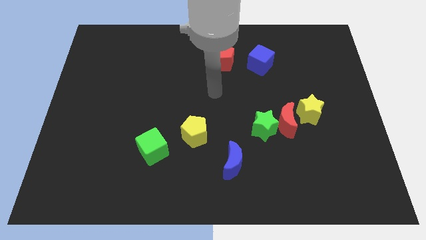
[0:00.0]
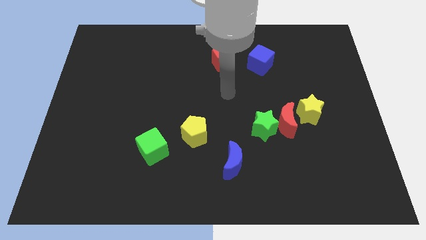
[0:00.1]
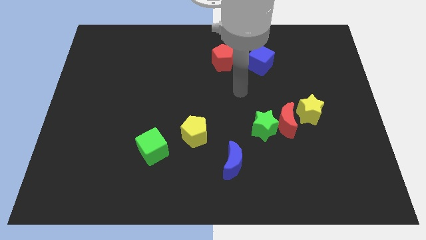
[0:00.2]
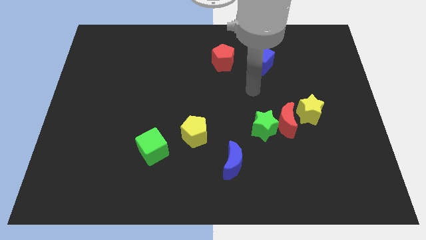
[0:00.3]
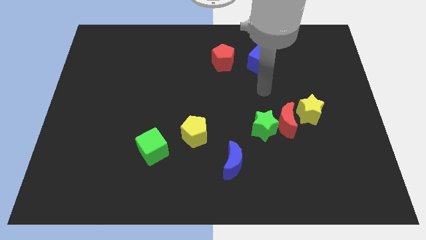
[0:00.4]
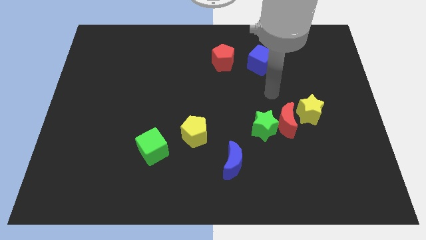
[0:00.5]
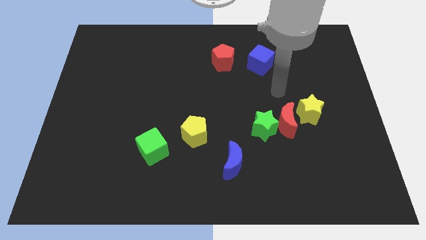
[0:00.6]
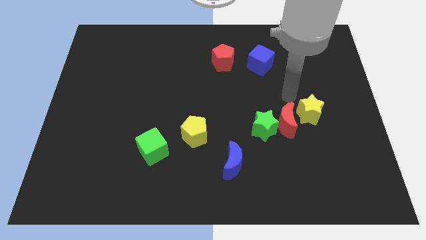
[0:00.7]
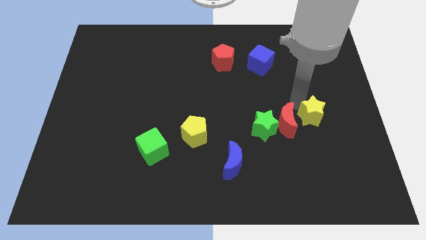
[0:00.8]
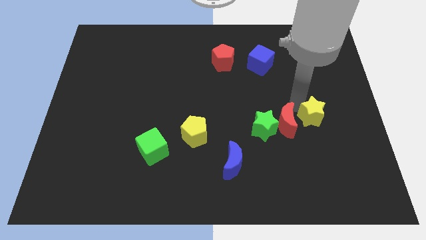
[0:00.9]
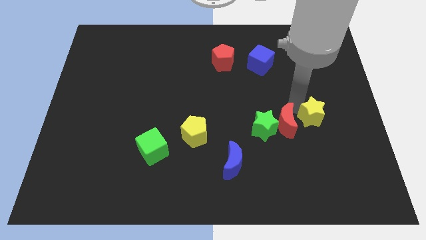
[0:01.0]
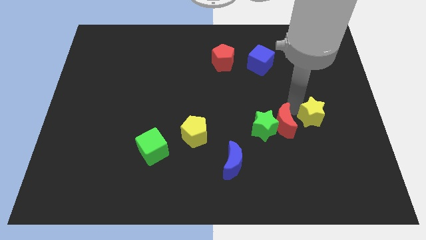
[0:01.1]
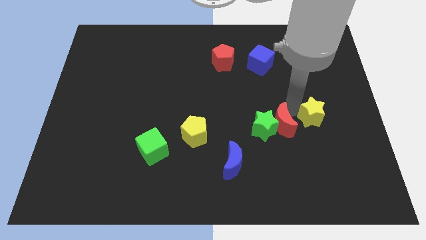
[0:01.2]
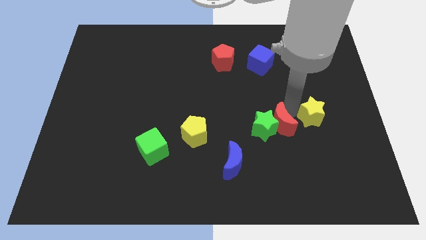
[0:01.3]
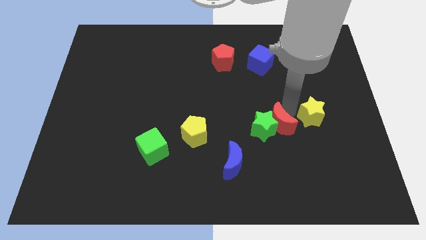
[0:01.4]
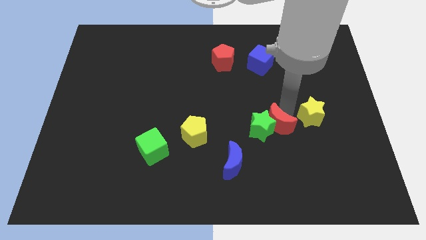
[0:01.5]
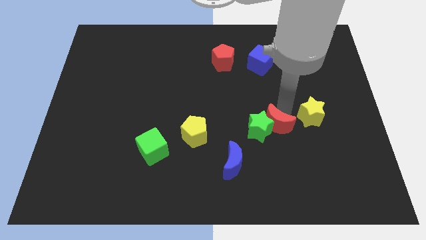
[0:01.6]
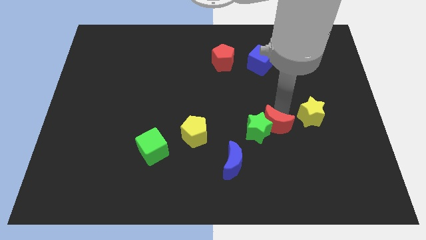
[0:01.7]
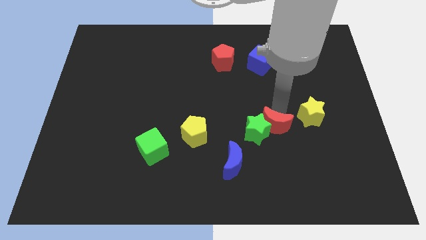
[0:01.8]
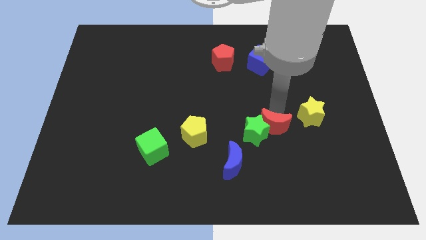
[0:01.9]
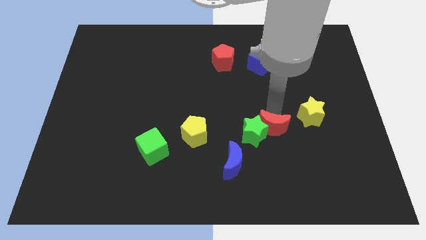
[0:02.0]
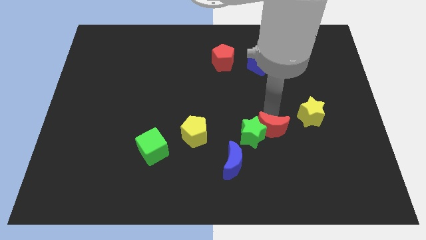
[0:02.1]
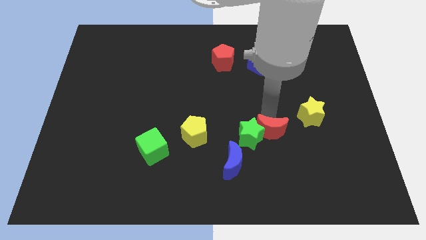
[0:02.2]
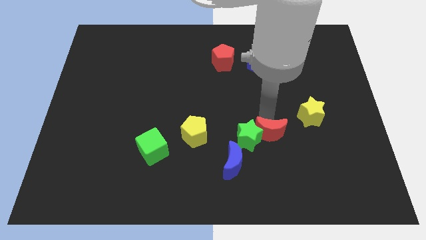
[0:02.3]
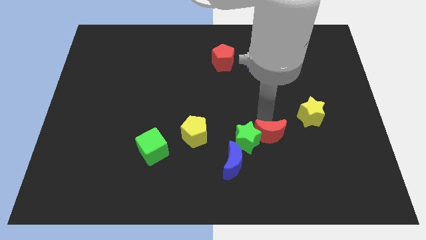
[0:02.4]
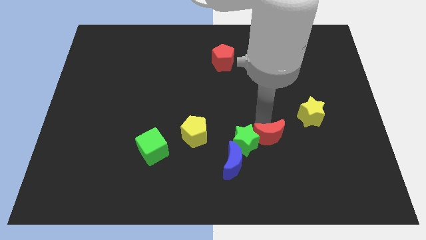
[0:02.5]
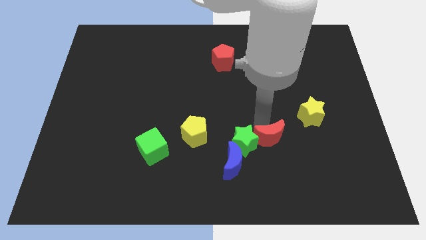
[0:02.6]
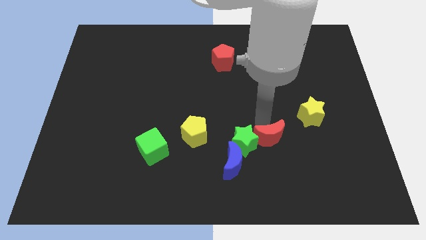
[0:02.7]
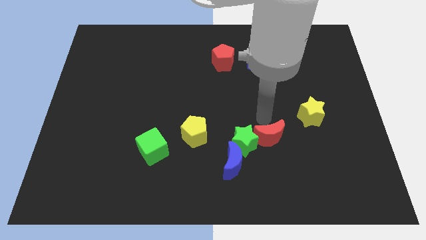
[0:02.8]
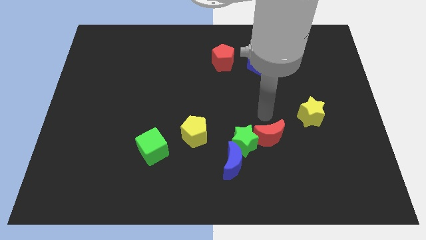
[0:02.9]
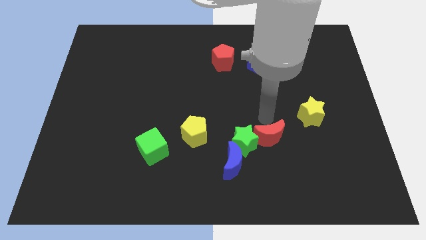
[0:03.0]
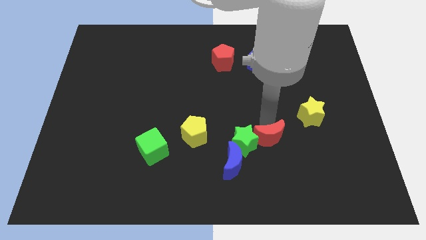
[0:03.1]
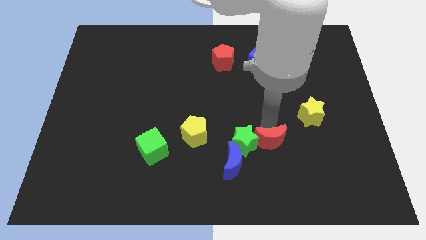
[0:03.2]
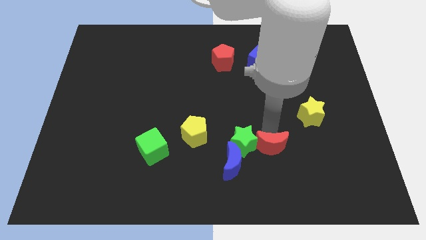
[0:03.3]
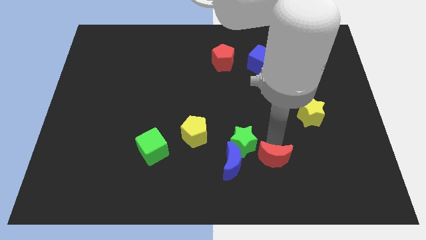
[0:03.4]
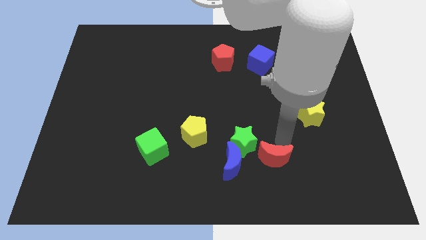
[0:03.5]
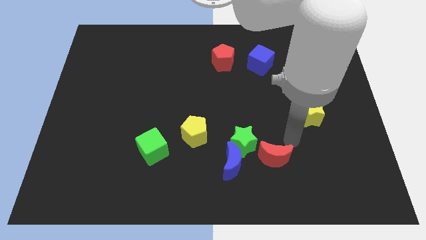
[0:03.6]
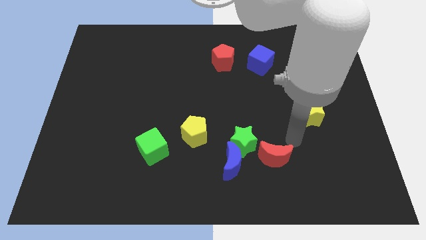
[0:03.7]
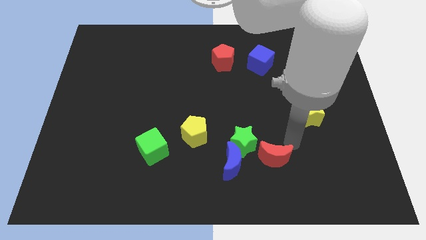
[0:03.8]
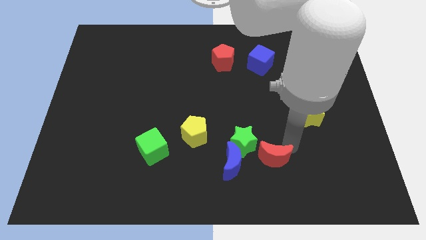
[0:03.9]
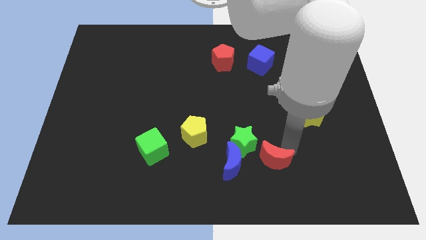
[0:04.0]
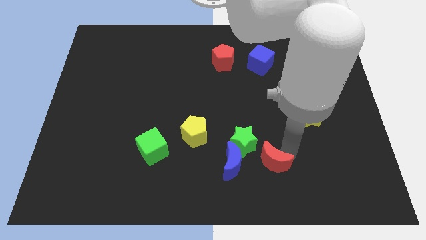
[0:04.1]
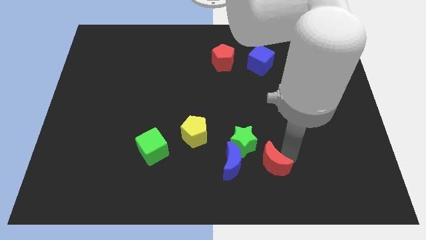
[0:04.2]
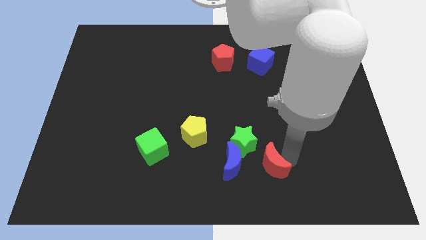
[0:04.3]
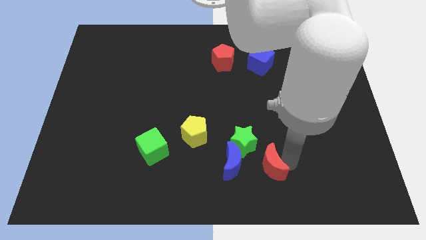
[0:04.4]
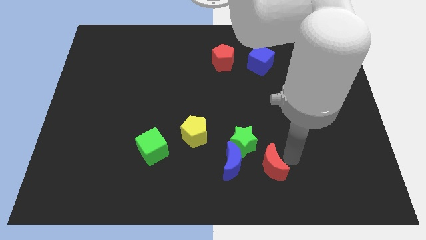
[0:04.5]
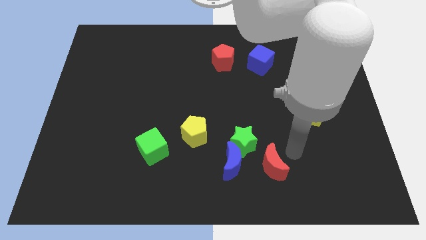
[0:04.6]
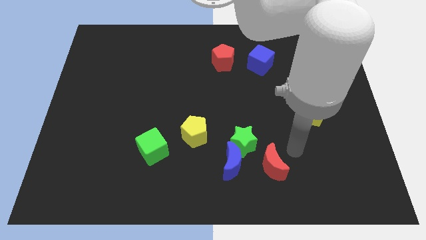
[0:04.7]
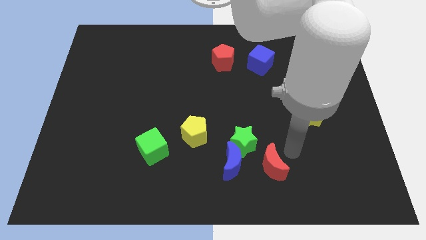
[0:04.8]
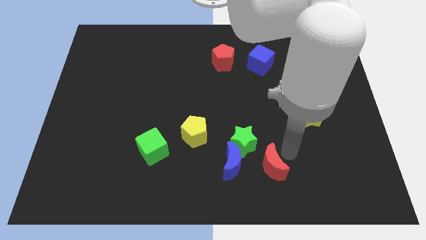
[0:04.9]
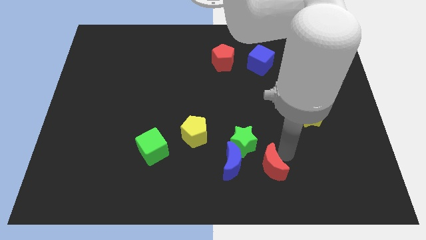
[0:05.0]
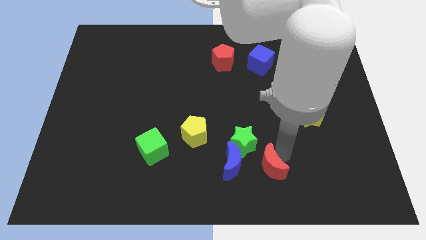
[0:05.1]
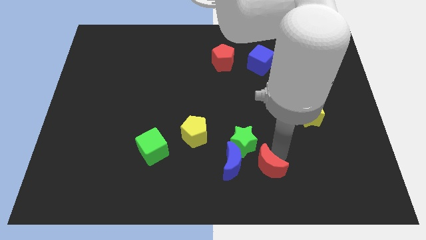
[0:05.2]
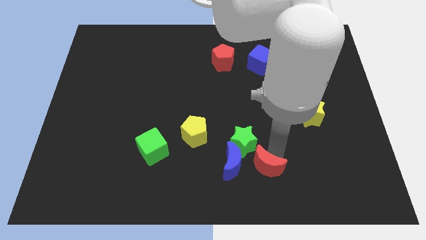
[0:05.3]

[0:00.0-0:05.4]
push the red moon below the green star

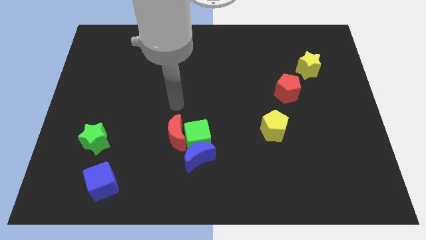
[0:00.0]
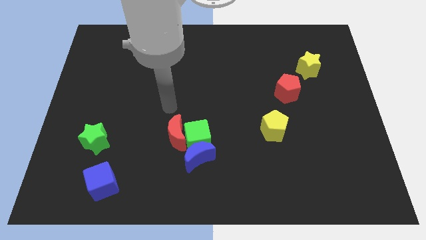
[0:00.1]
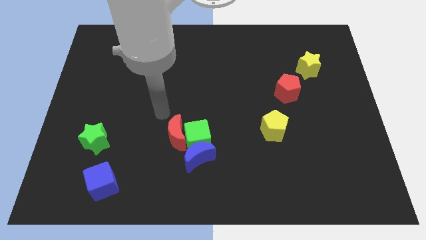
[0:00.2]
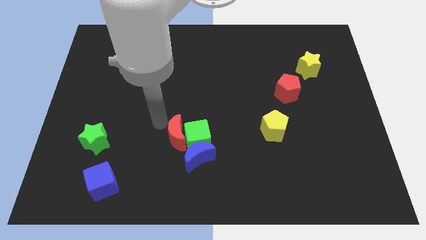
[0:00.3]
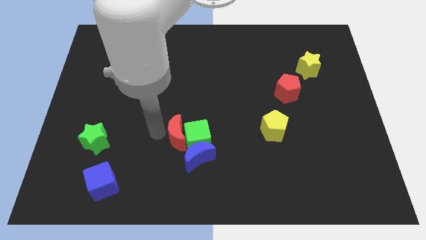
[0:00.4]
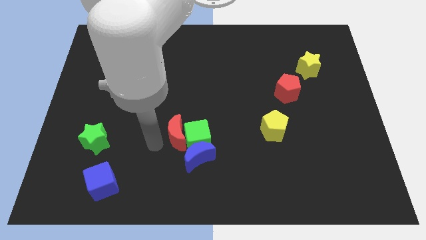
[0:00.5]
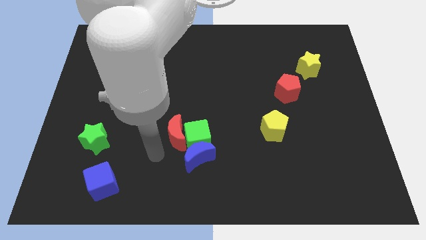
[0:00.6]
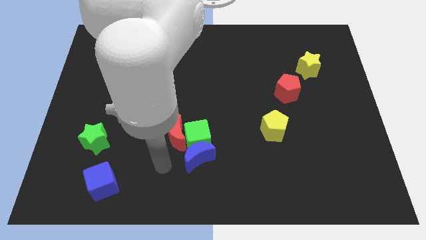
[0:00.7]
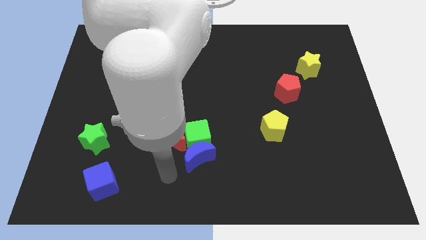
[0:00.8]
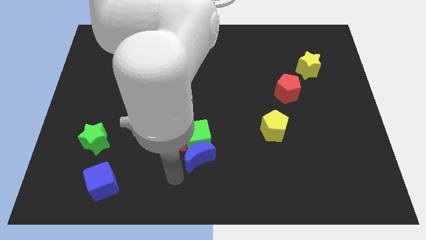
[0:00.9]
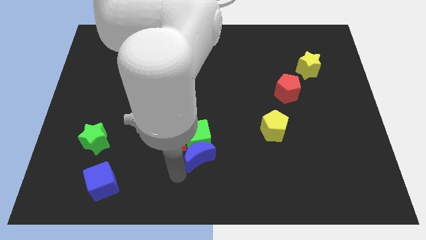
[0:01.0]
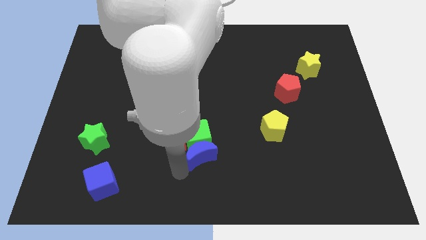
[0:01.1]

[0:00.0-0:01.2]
slide the blue moon to the right of the red moon
